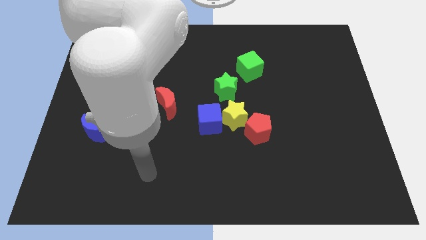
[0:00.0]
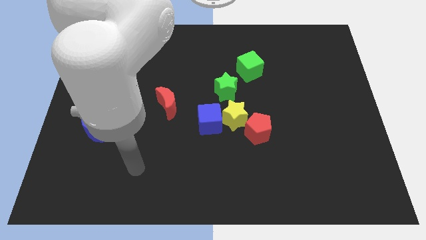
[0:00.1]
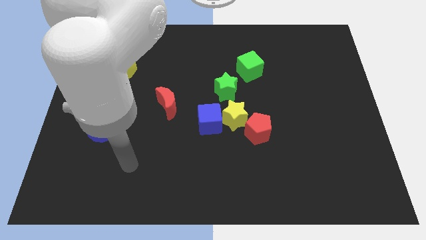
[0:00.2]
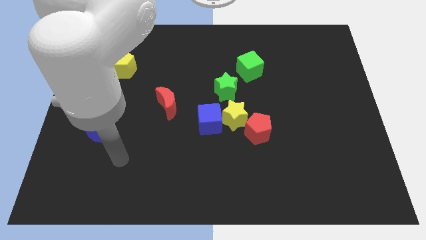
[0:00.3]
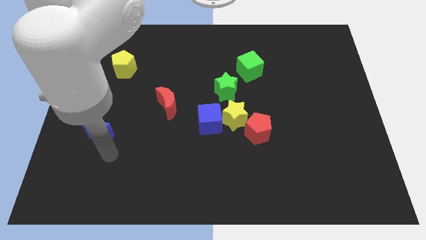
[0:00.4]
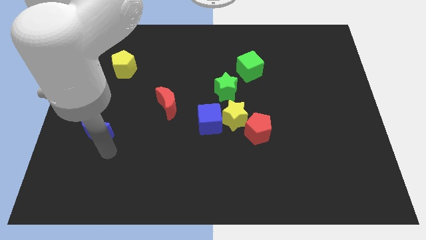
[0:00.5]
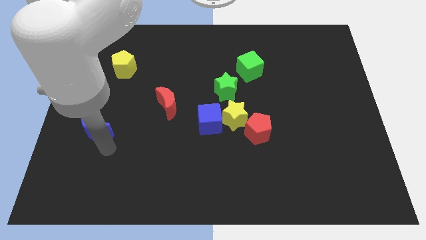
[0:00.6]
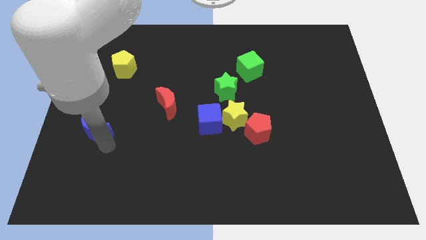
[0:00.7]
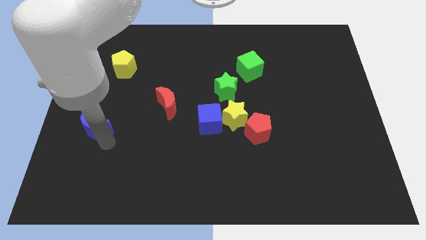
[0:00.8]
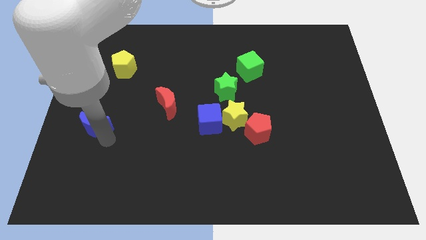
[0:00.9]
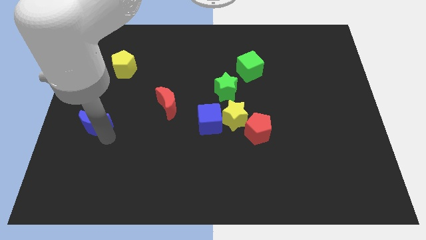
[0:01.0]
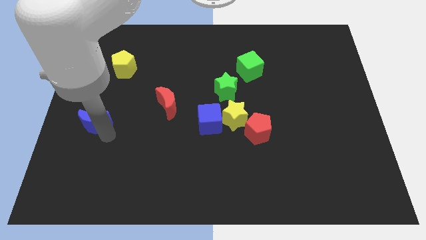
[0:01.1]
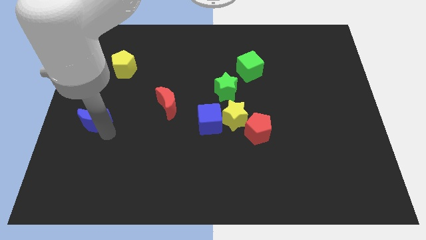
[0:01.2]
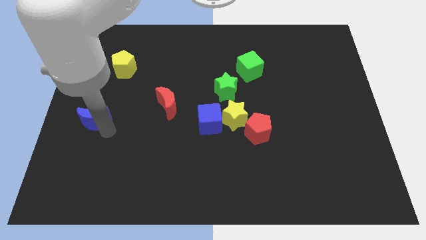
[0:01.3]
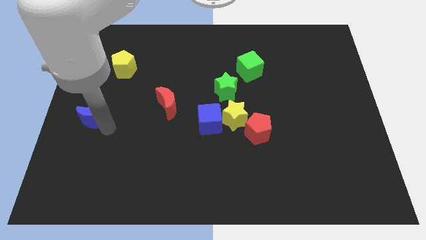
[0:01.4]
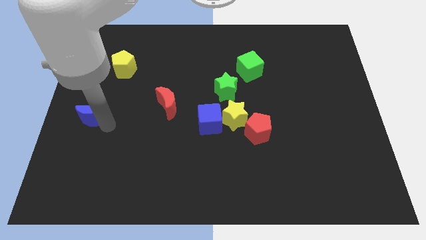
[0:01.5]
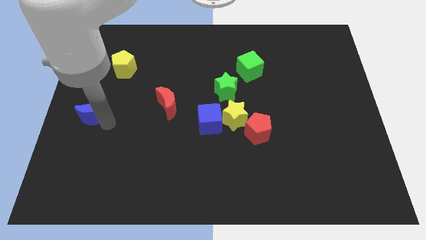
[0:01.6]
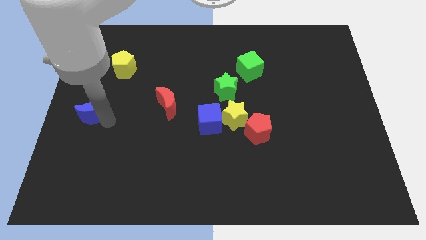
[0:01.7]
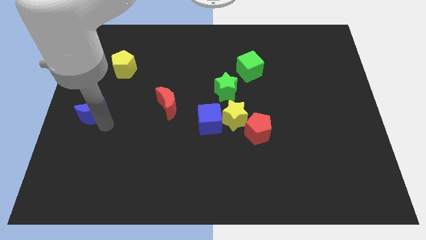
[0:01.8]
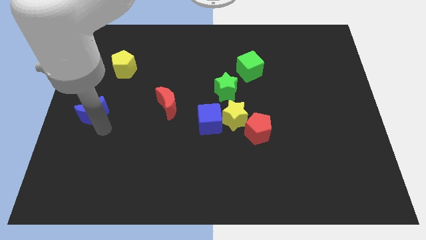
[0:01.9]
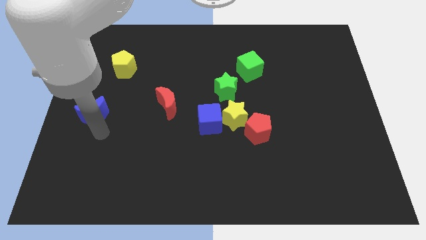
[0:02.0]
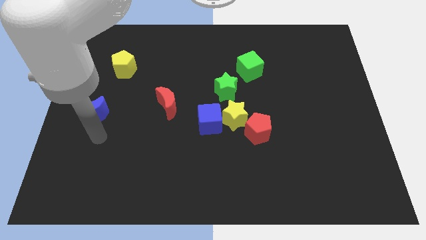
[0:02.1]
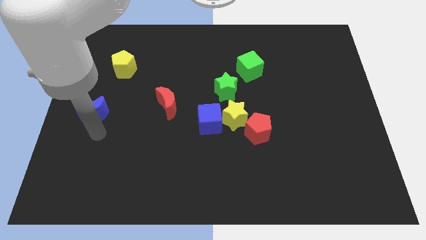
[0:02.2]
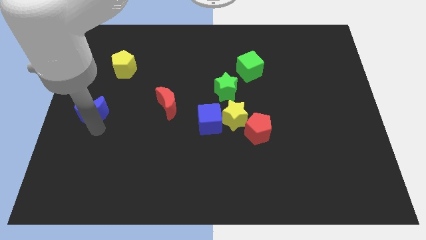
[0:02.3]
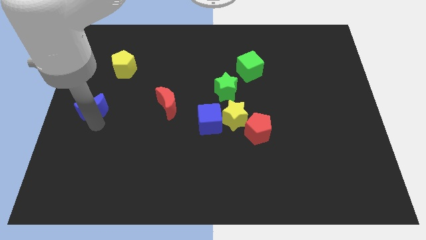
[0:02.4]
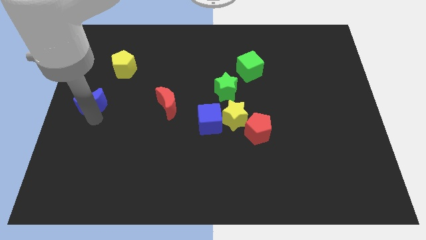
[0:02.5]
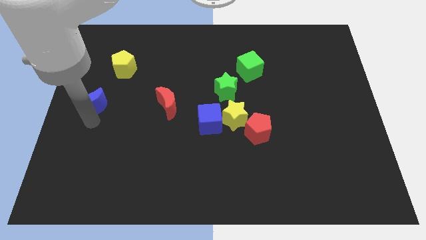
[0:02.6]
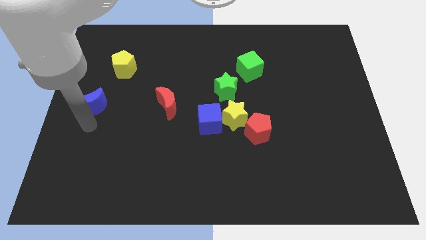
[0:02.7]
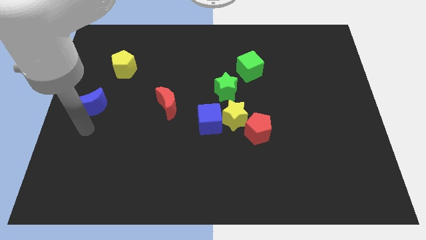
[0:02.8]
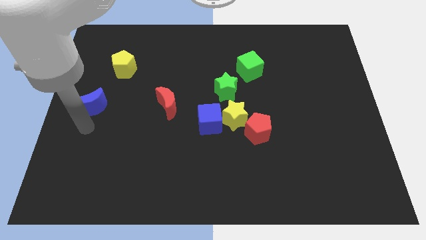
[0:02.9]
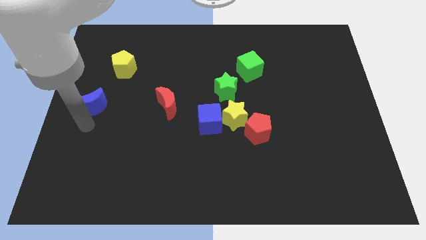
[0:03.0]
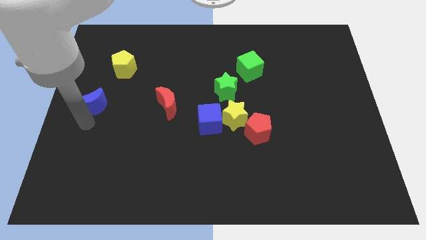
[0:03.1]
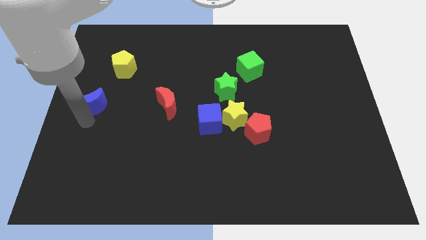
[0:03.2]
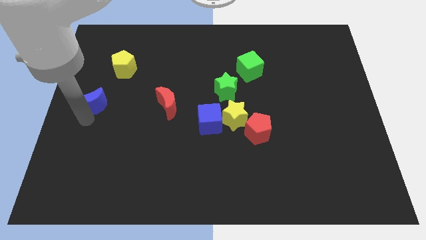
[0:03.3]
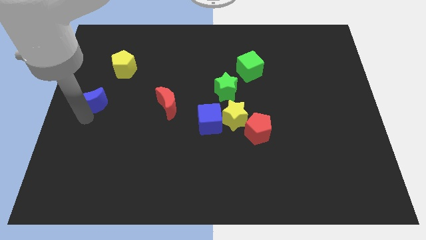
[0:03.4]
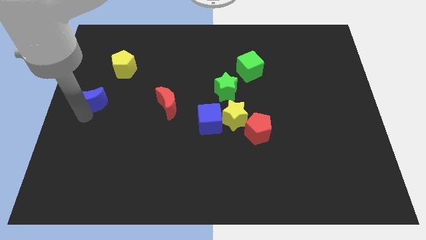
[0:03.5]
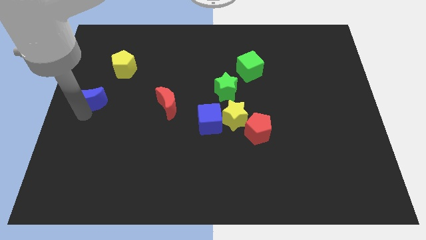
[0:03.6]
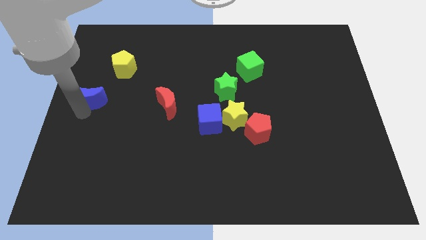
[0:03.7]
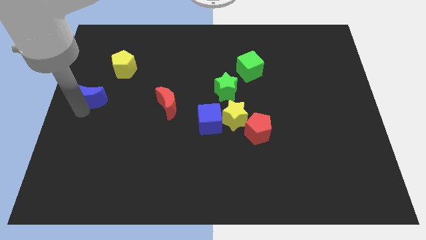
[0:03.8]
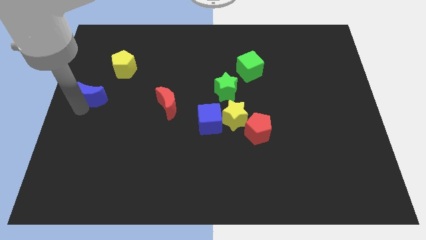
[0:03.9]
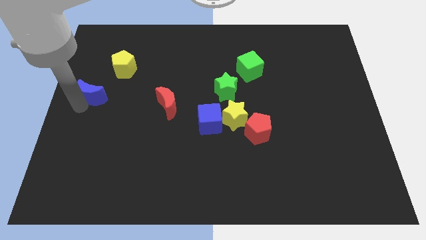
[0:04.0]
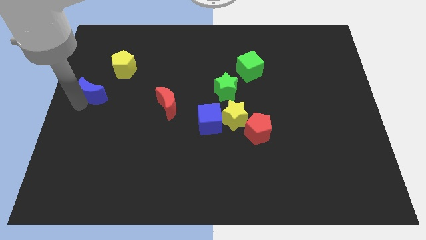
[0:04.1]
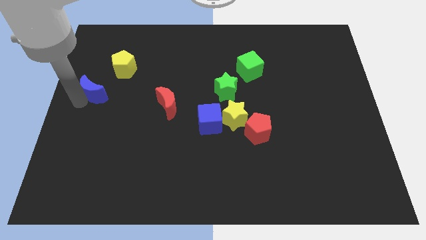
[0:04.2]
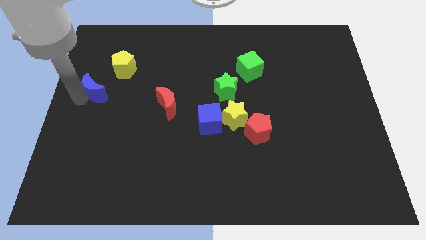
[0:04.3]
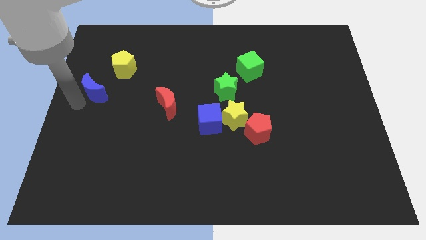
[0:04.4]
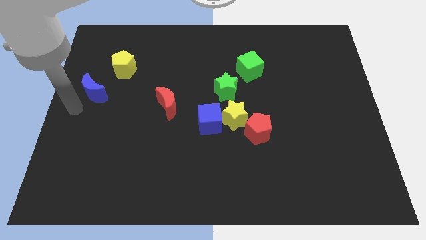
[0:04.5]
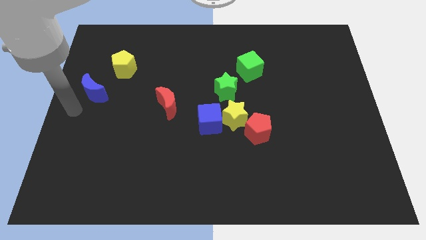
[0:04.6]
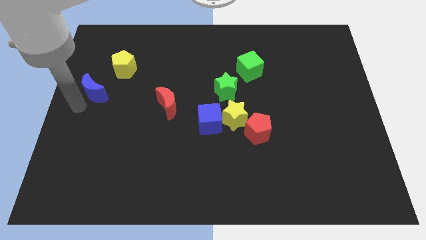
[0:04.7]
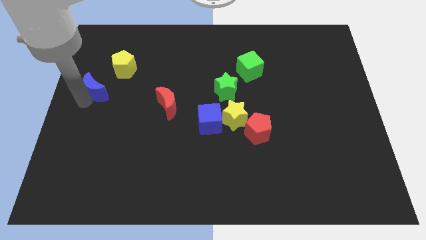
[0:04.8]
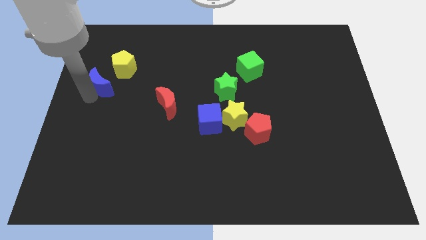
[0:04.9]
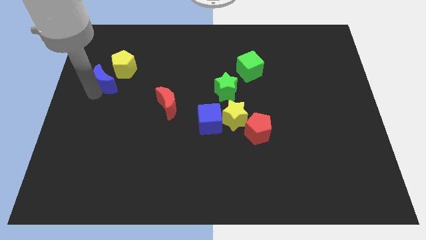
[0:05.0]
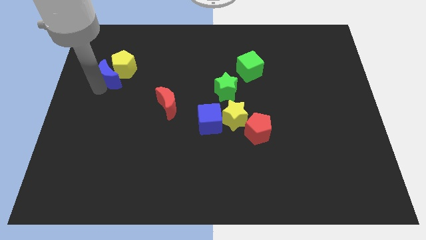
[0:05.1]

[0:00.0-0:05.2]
push the blue moon to the yellow pentagon

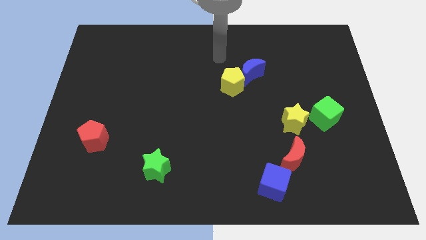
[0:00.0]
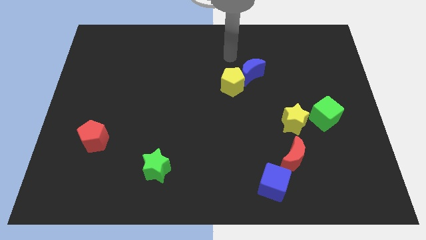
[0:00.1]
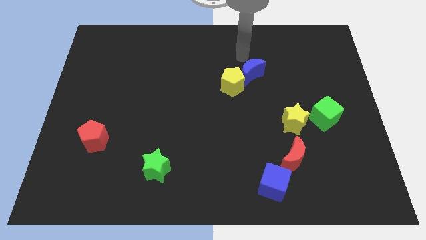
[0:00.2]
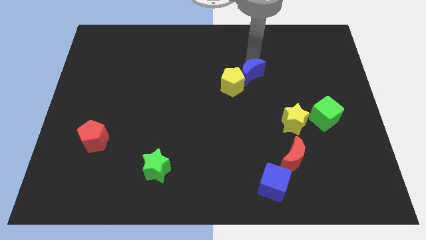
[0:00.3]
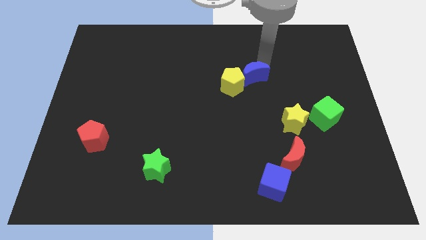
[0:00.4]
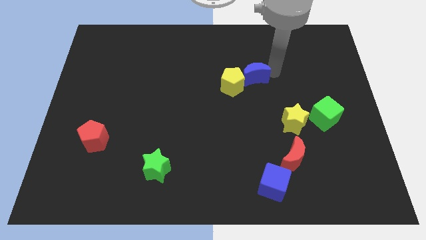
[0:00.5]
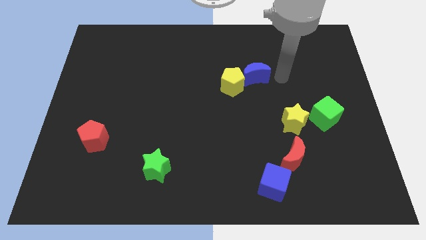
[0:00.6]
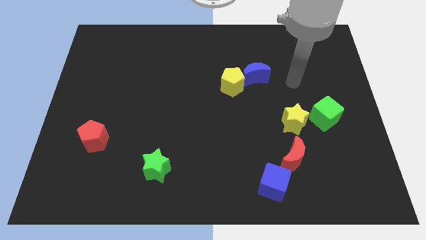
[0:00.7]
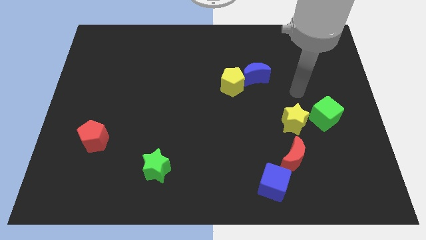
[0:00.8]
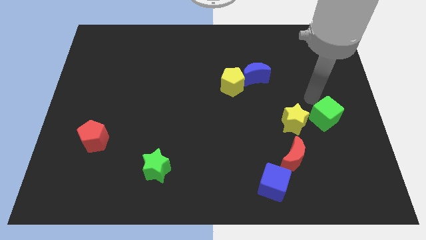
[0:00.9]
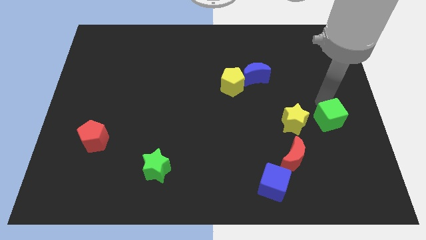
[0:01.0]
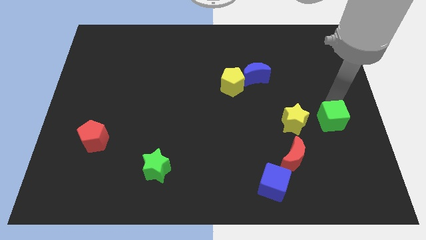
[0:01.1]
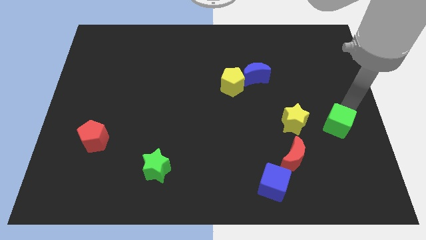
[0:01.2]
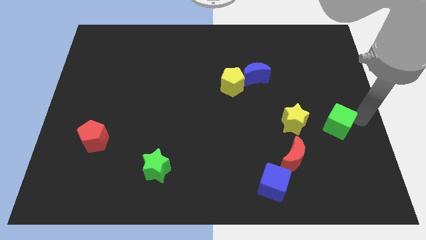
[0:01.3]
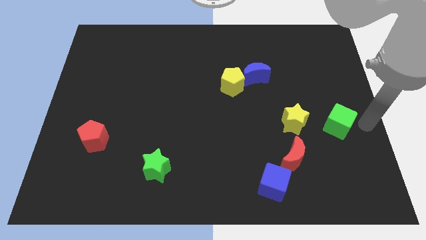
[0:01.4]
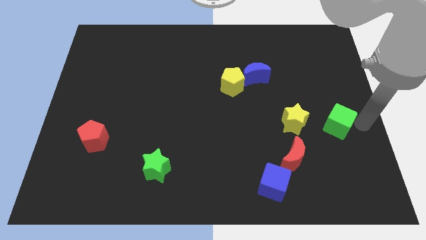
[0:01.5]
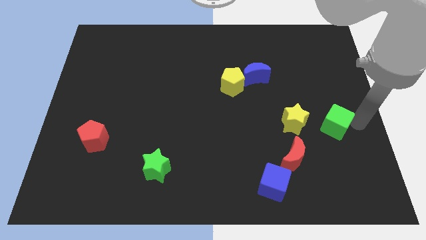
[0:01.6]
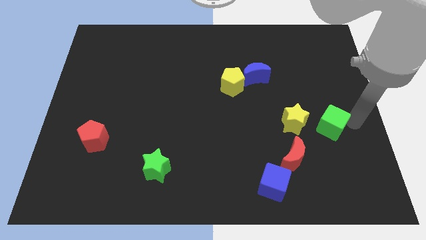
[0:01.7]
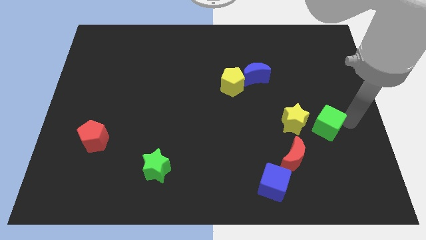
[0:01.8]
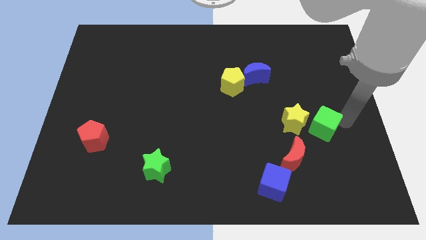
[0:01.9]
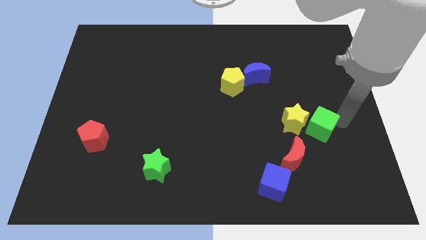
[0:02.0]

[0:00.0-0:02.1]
move the green cube towards the yellow star
